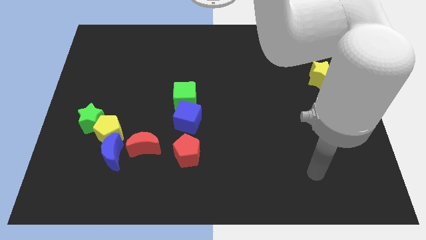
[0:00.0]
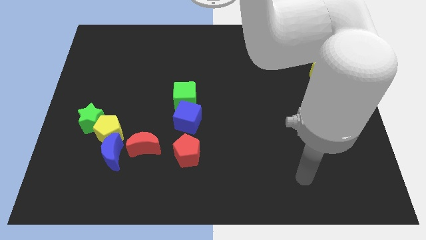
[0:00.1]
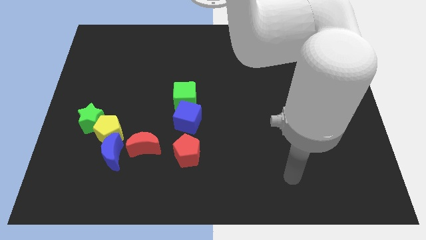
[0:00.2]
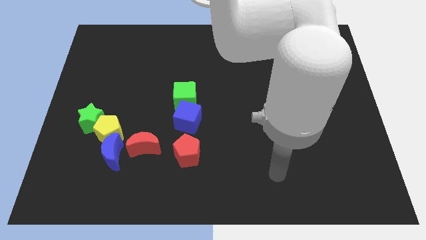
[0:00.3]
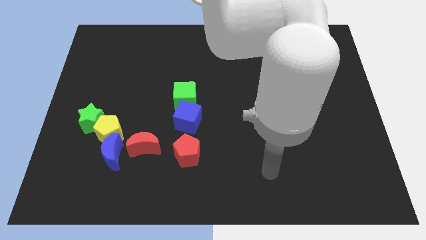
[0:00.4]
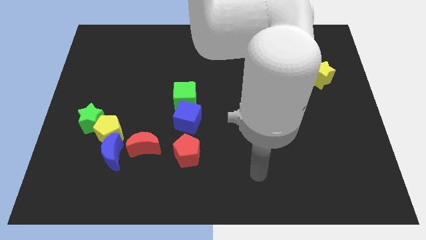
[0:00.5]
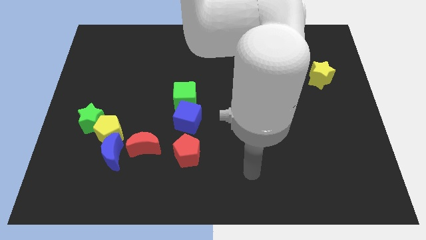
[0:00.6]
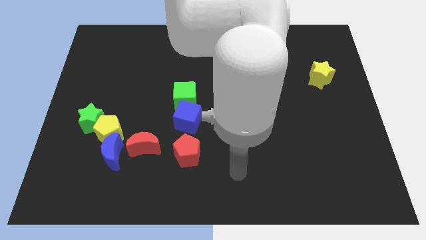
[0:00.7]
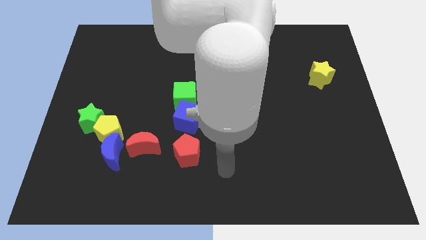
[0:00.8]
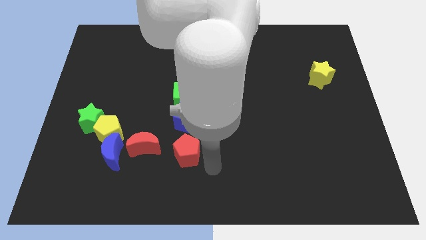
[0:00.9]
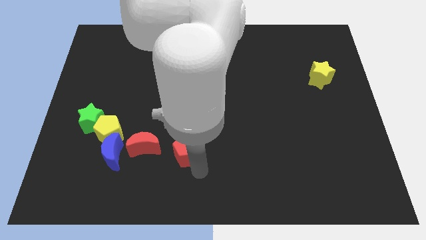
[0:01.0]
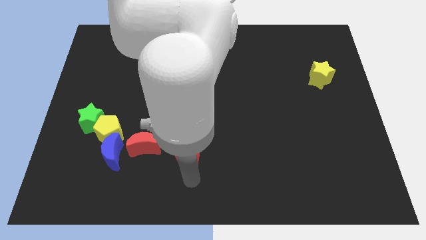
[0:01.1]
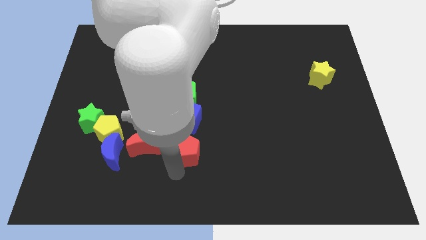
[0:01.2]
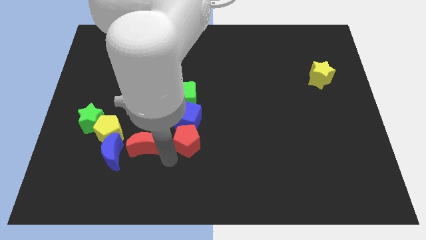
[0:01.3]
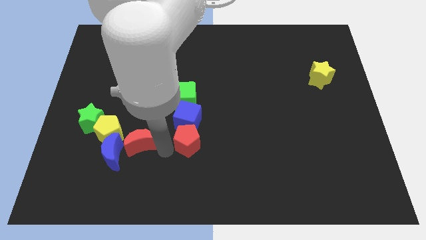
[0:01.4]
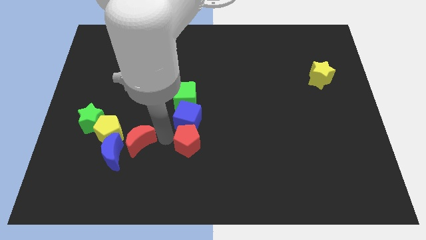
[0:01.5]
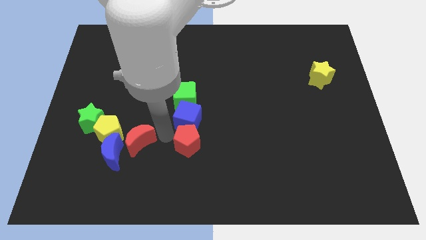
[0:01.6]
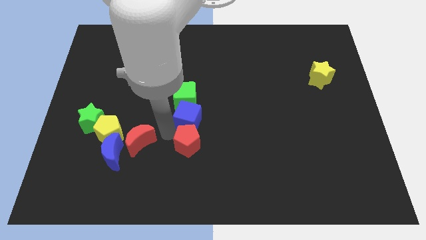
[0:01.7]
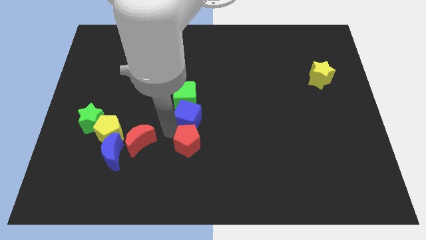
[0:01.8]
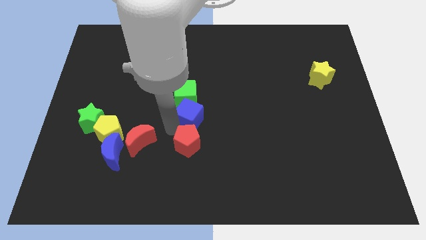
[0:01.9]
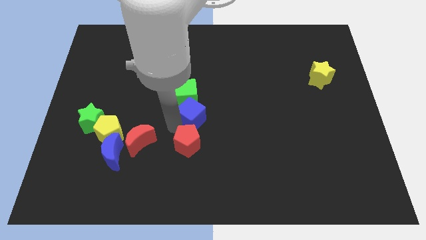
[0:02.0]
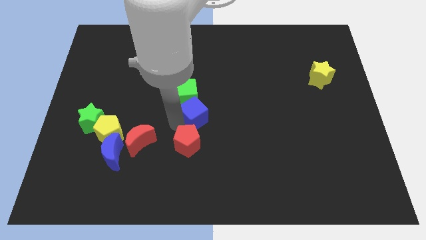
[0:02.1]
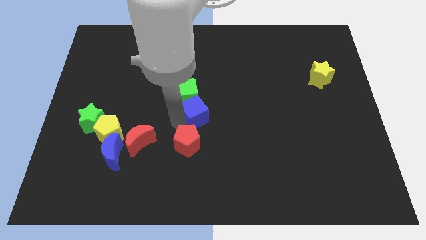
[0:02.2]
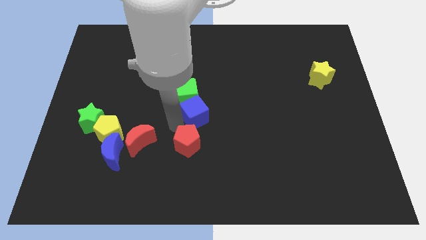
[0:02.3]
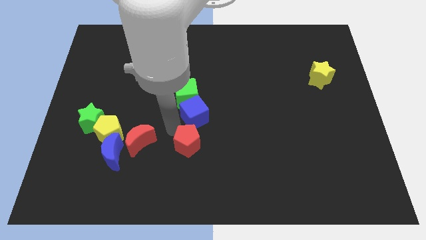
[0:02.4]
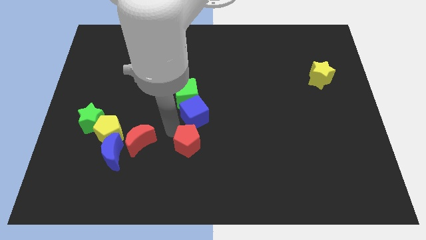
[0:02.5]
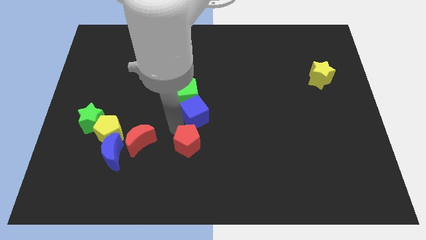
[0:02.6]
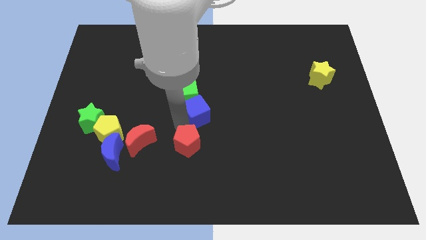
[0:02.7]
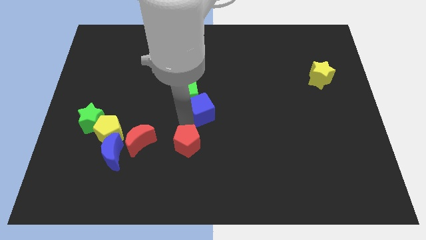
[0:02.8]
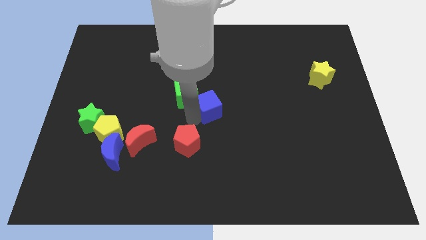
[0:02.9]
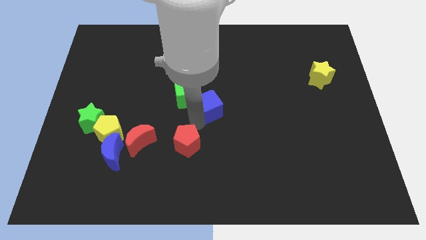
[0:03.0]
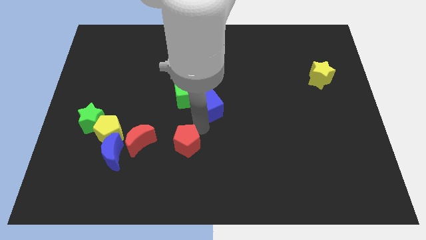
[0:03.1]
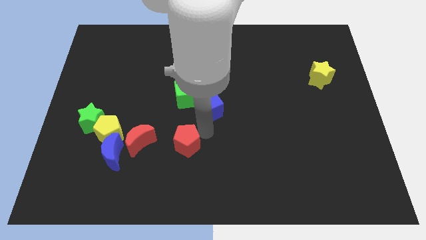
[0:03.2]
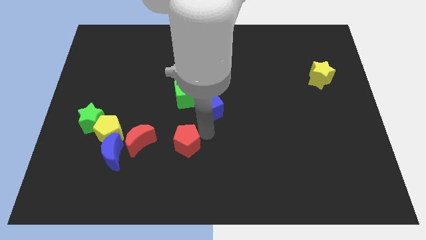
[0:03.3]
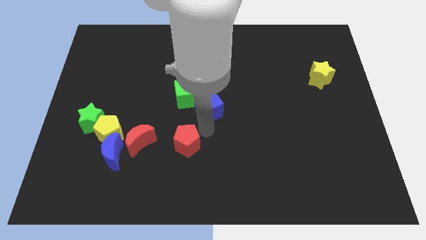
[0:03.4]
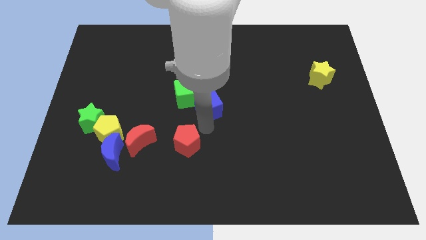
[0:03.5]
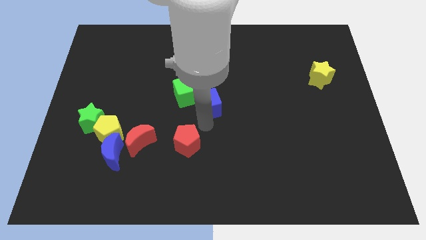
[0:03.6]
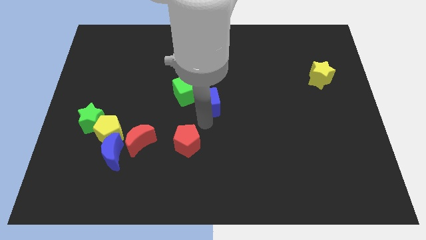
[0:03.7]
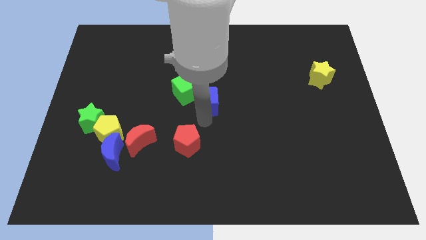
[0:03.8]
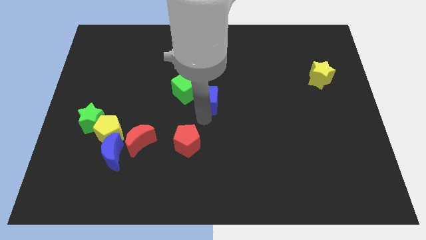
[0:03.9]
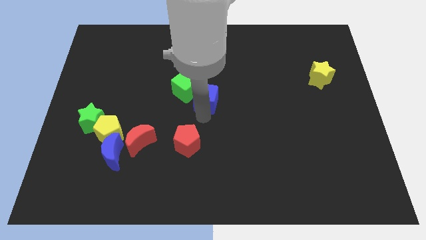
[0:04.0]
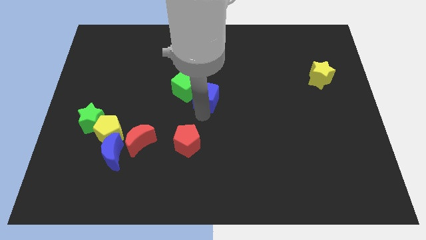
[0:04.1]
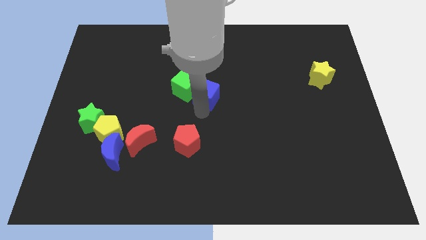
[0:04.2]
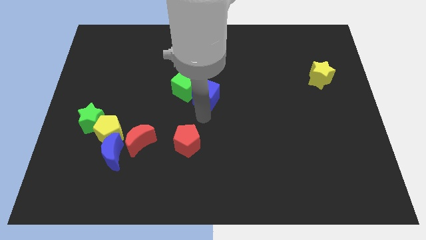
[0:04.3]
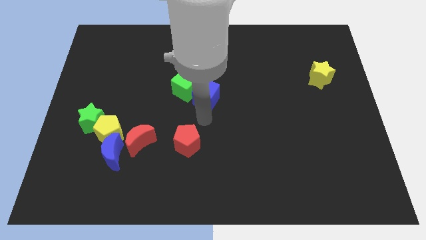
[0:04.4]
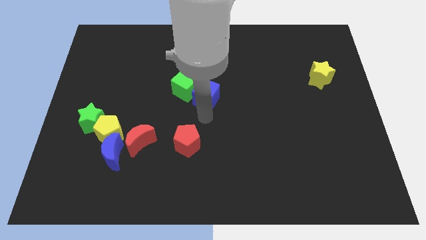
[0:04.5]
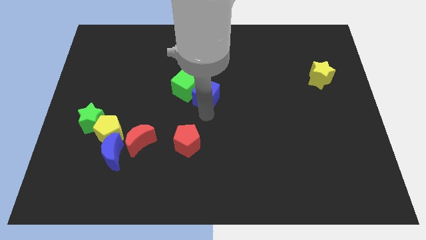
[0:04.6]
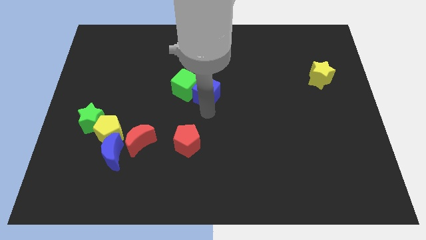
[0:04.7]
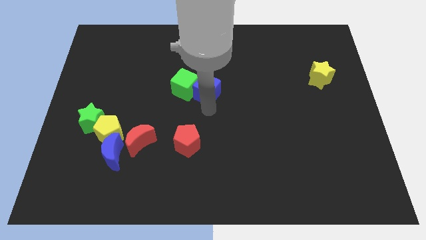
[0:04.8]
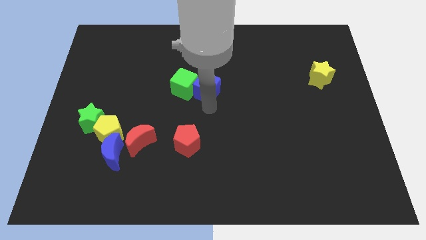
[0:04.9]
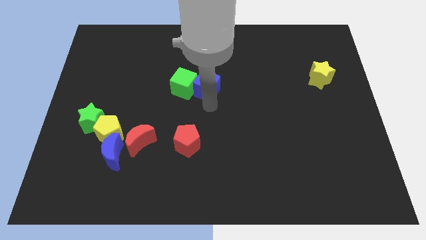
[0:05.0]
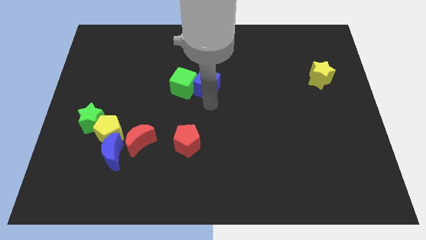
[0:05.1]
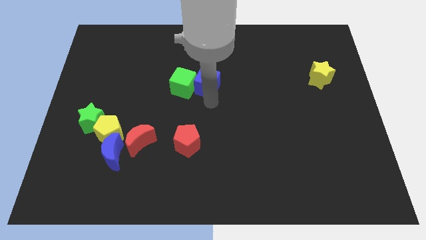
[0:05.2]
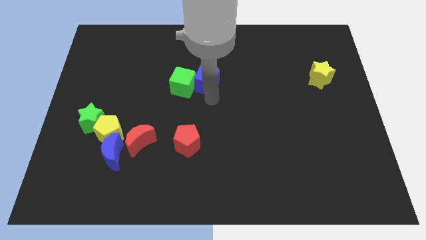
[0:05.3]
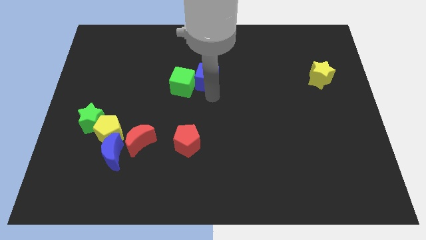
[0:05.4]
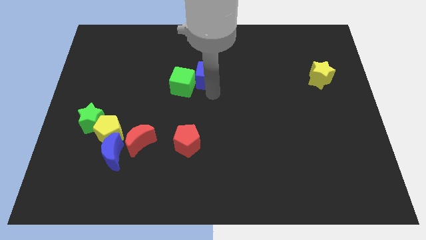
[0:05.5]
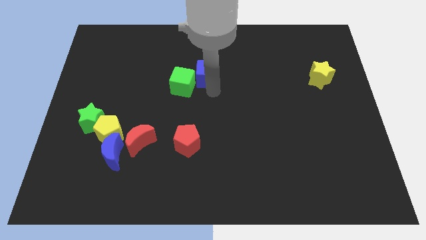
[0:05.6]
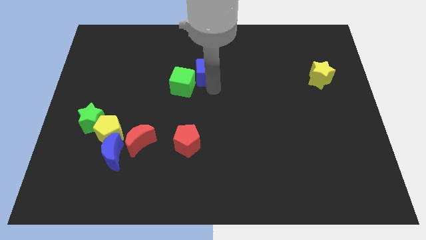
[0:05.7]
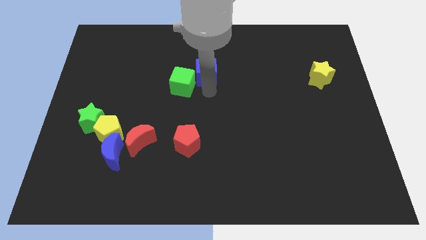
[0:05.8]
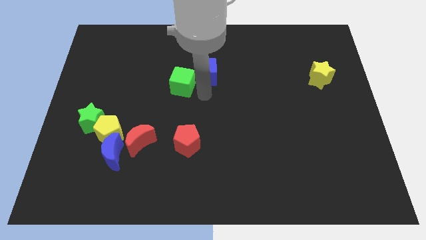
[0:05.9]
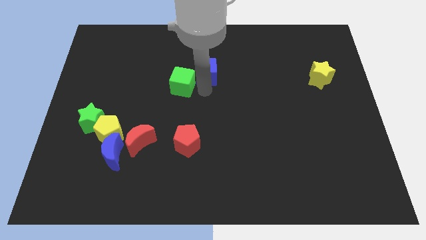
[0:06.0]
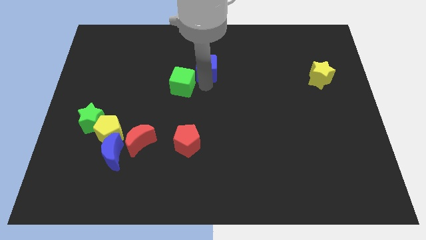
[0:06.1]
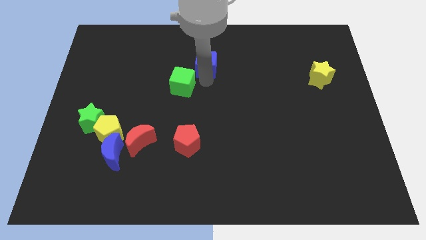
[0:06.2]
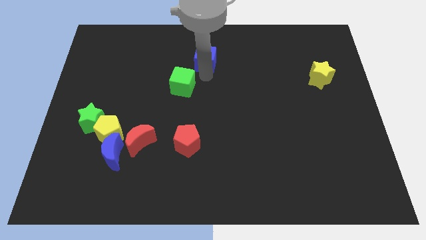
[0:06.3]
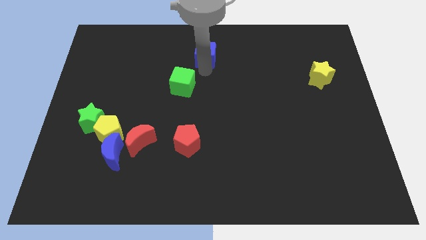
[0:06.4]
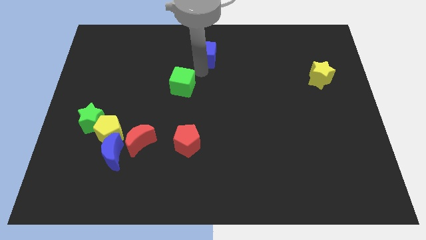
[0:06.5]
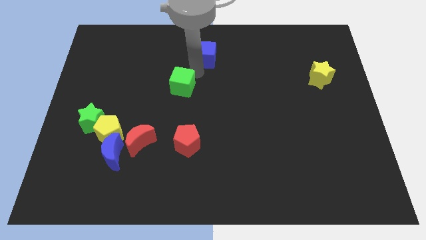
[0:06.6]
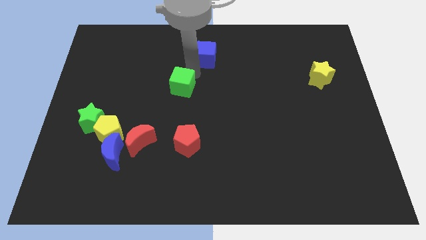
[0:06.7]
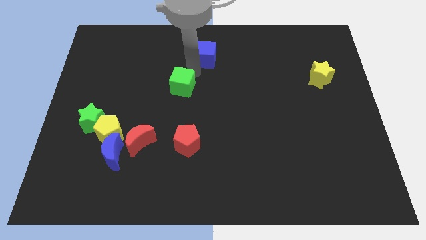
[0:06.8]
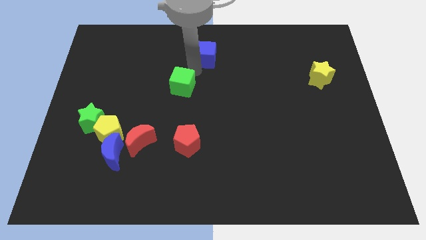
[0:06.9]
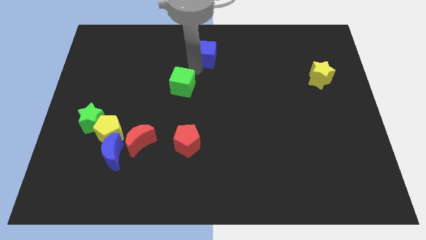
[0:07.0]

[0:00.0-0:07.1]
slide the blue cube to the top side
